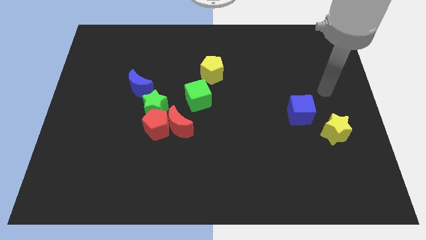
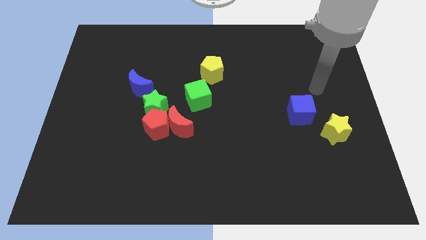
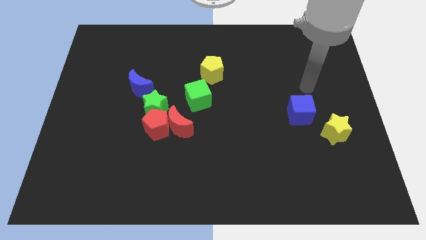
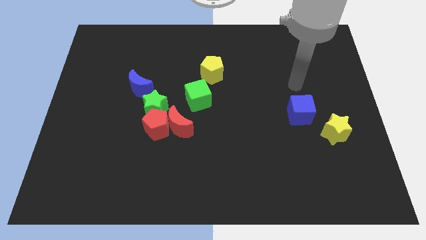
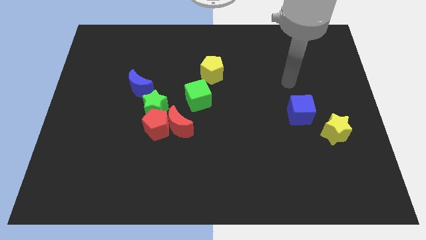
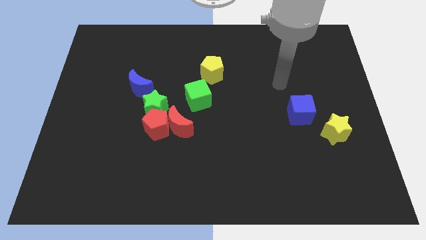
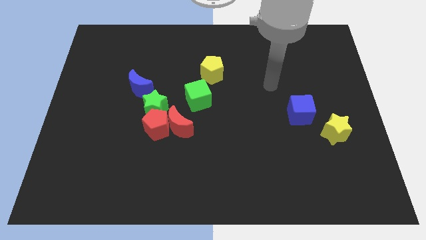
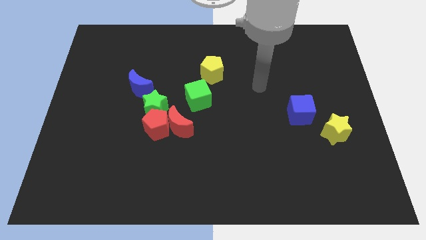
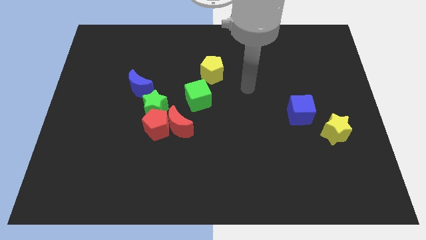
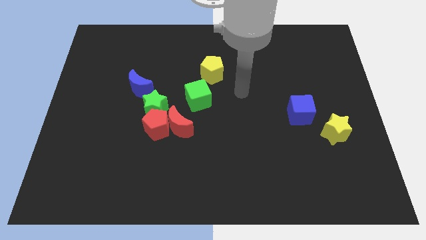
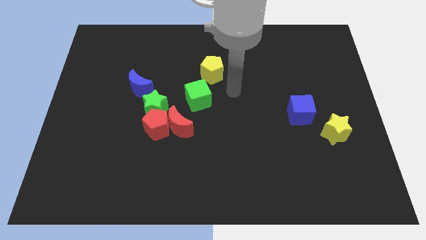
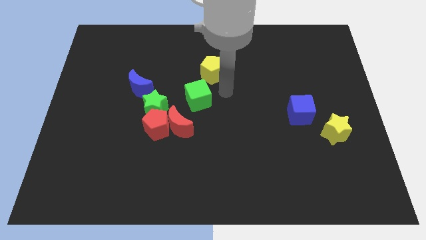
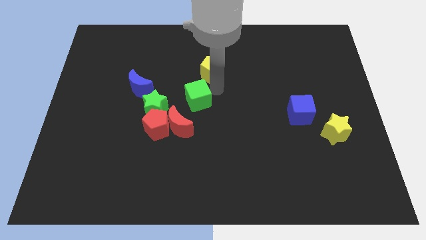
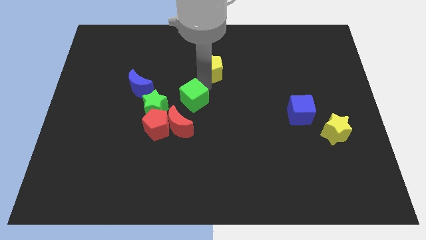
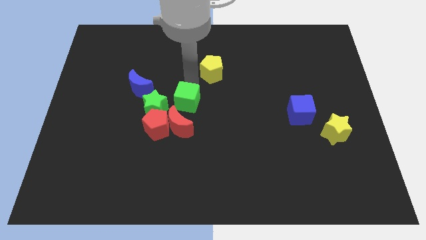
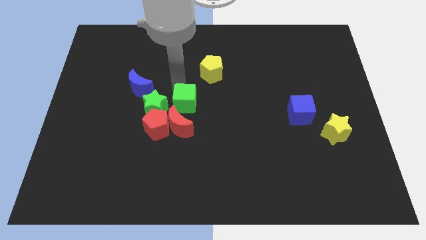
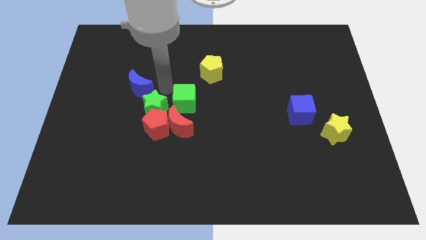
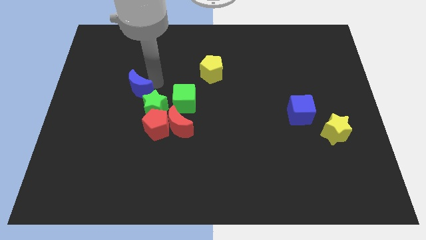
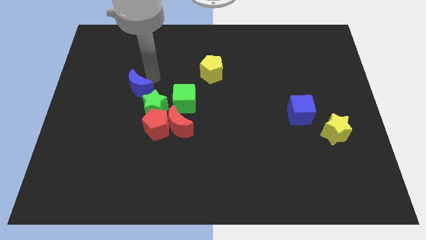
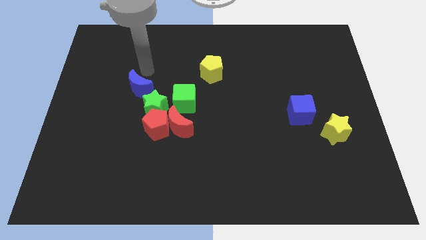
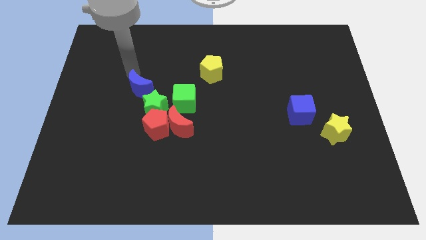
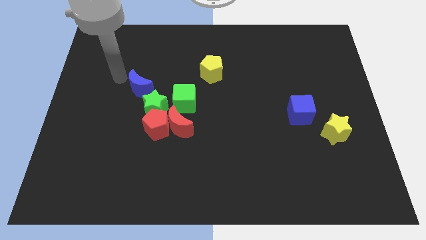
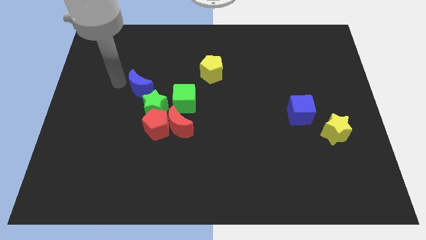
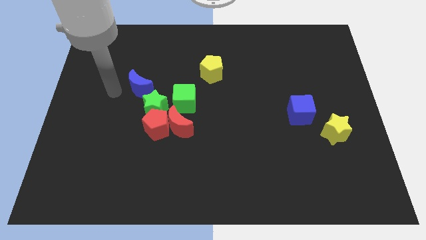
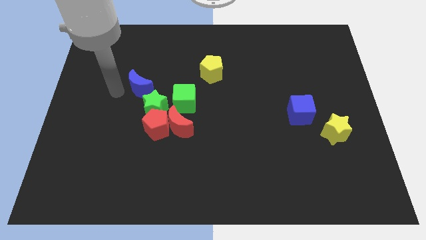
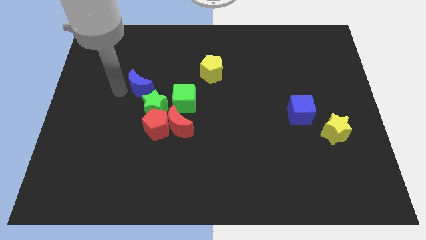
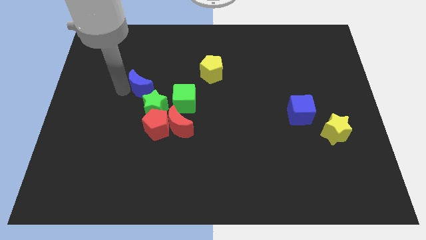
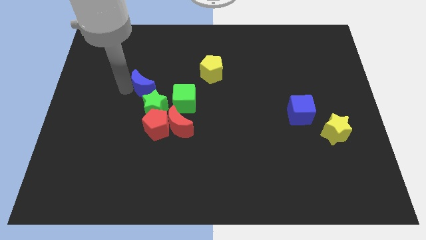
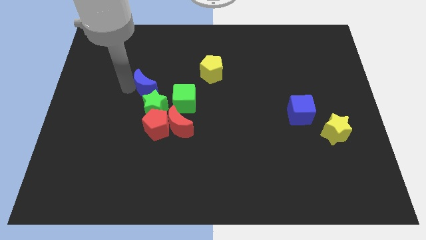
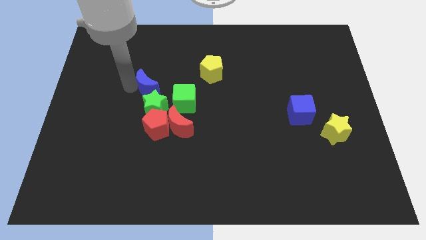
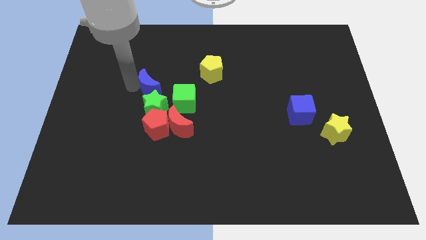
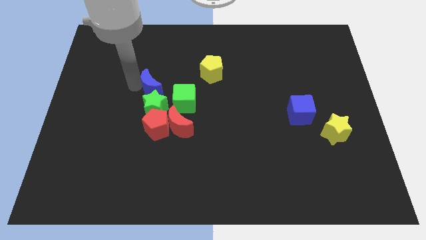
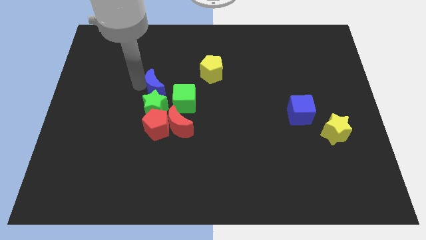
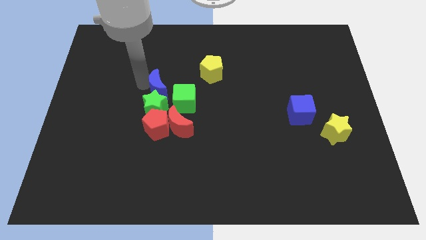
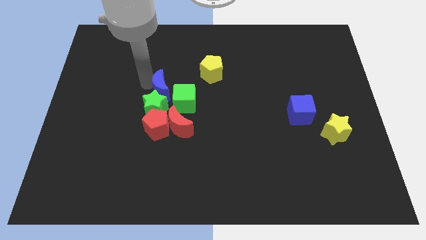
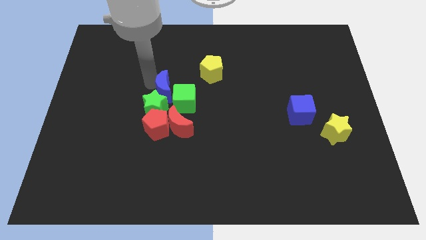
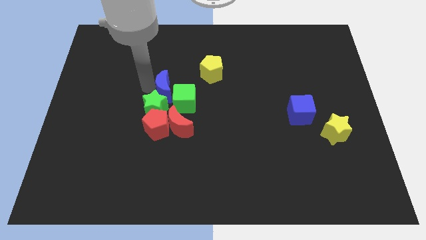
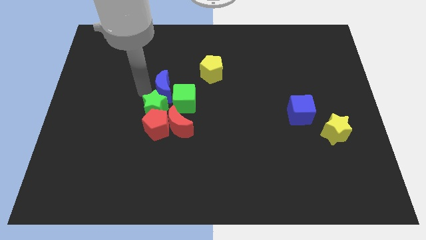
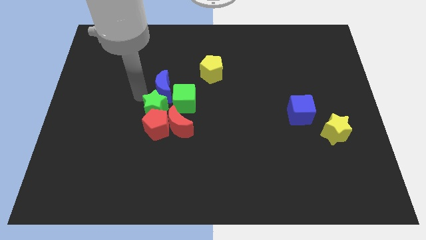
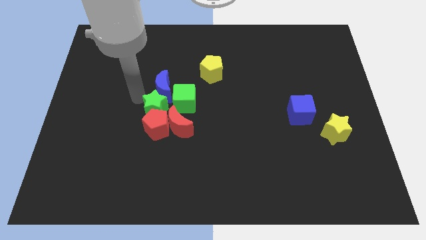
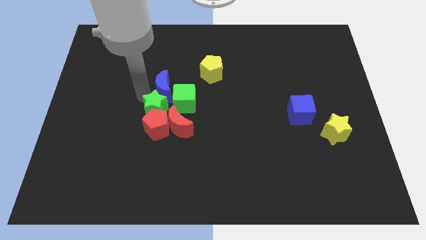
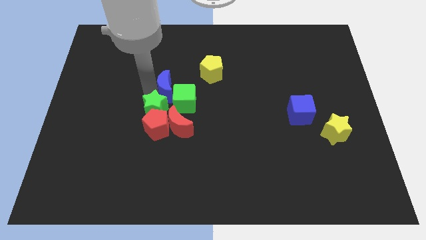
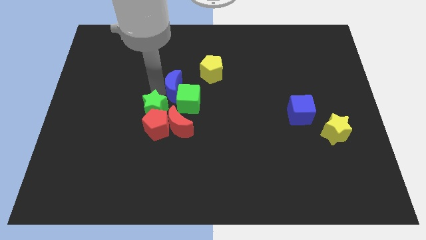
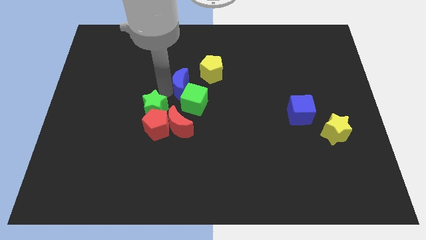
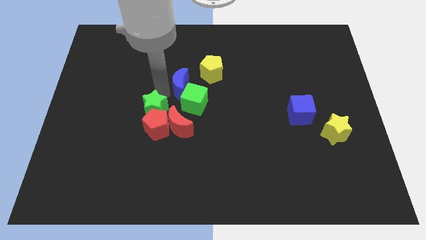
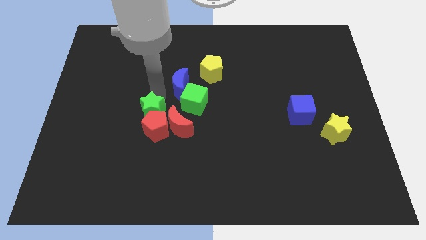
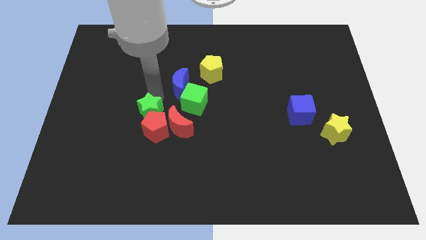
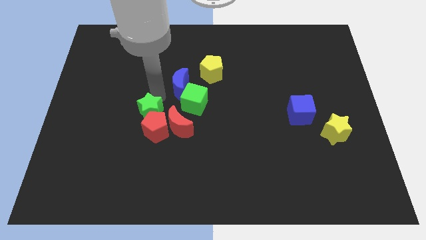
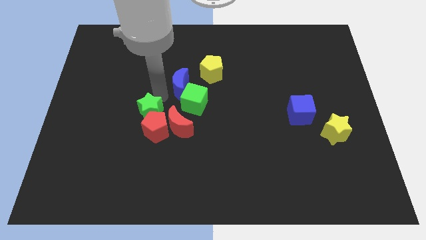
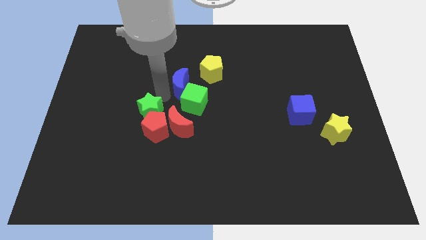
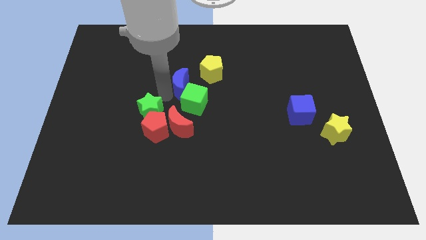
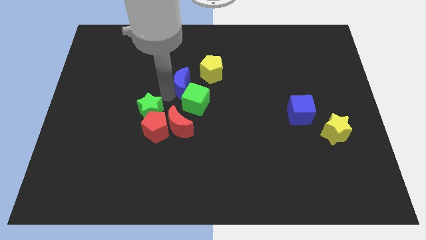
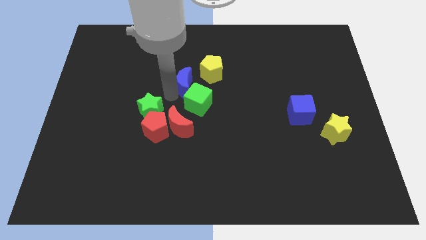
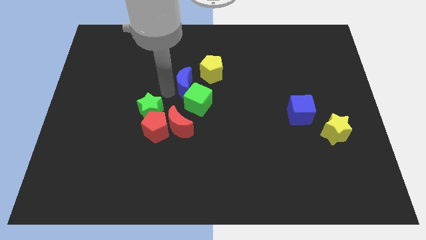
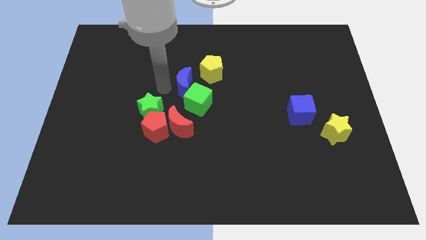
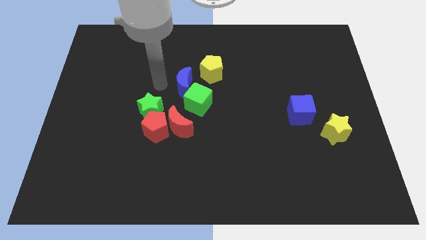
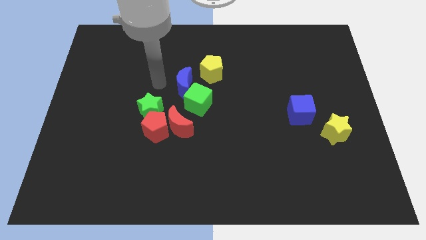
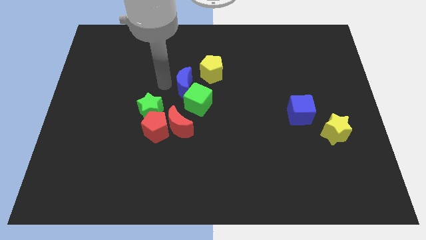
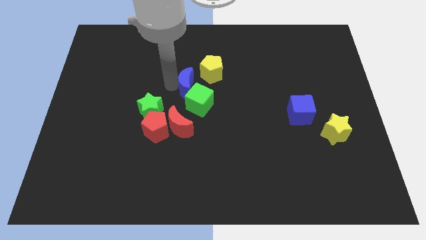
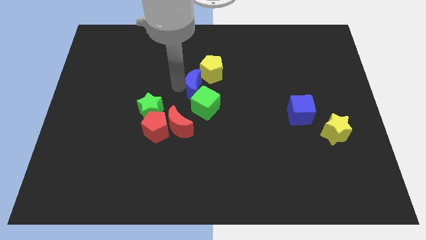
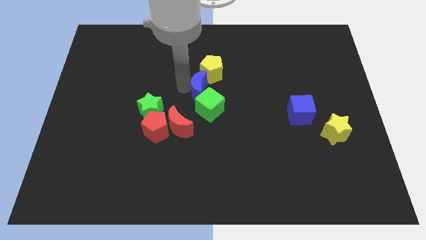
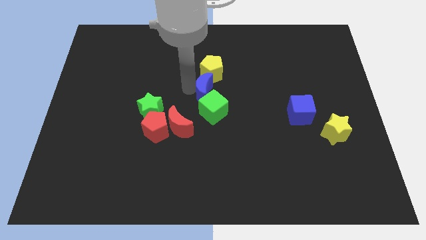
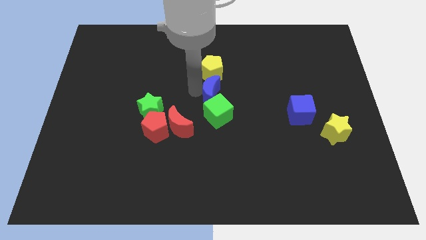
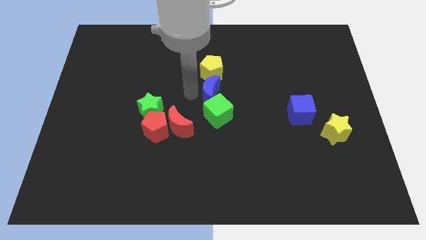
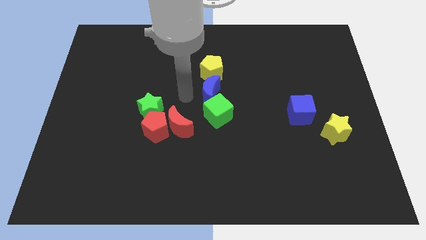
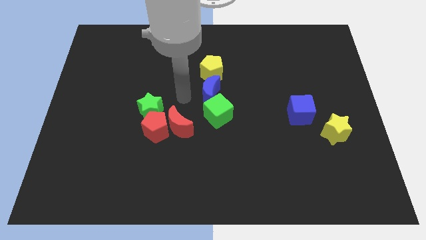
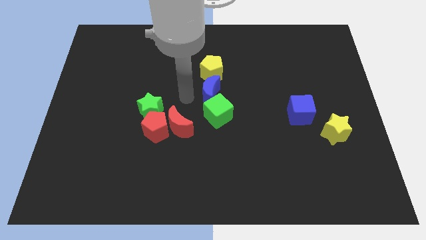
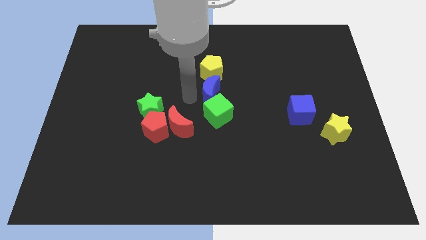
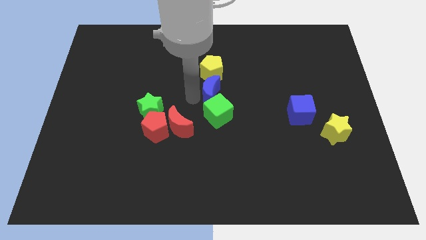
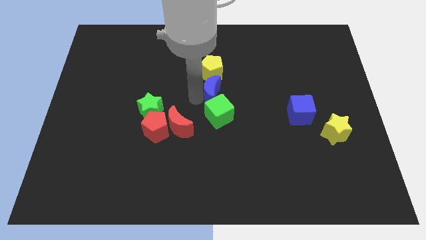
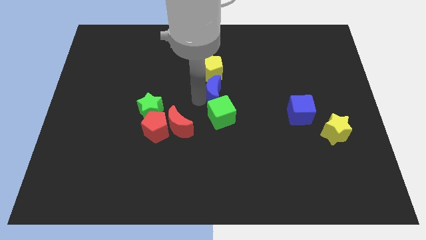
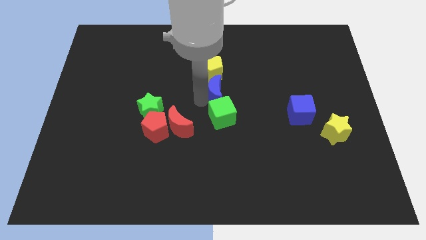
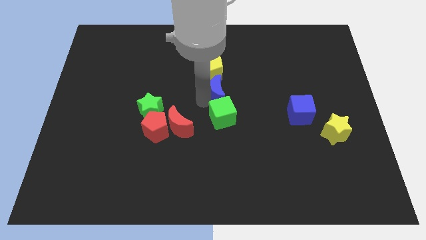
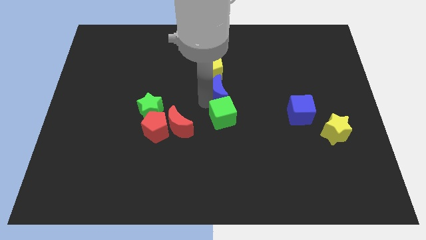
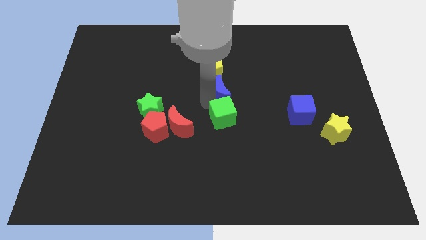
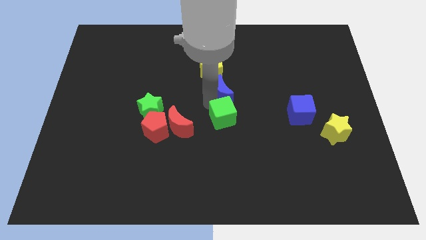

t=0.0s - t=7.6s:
slide the blue moon to the right
